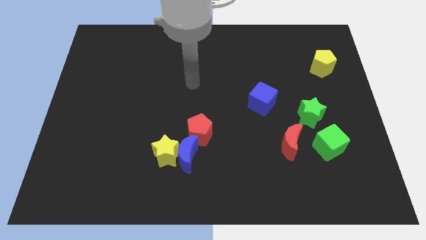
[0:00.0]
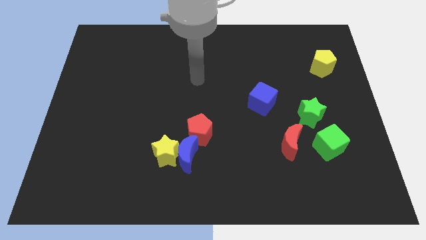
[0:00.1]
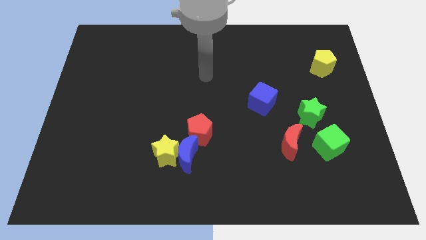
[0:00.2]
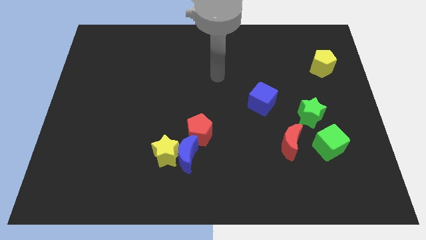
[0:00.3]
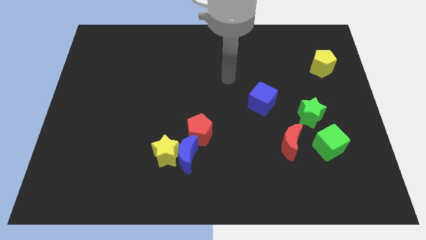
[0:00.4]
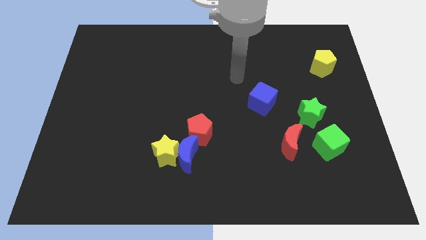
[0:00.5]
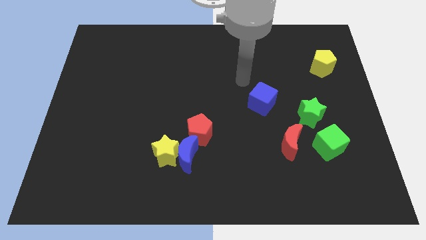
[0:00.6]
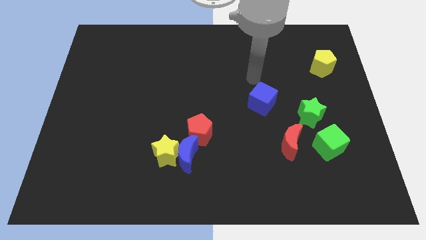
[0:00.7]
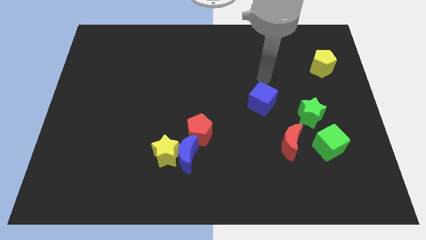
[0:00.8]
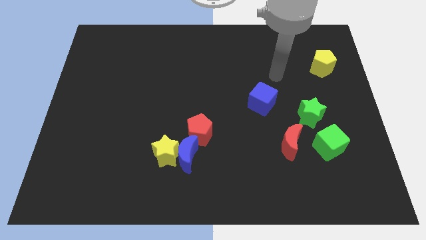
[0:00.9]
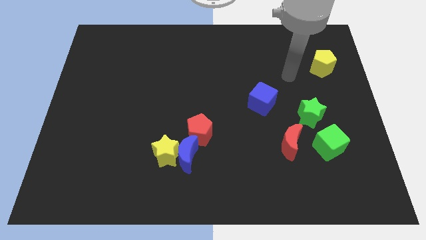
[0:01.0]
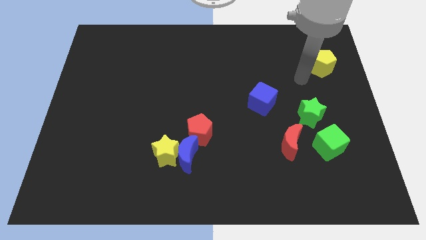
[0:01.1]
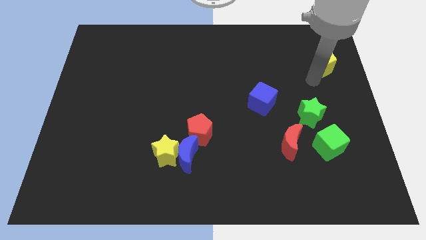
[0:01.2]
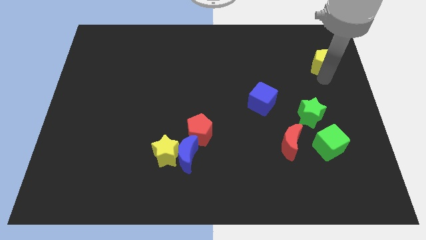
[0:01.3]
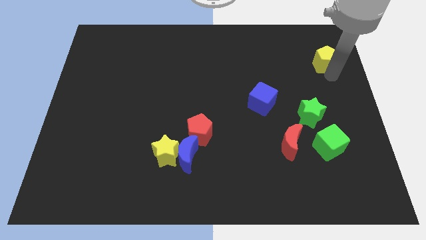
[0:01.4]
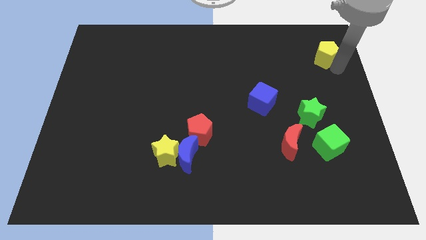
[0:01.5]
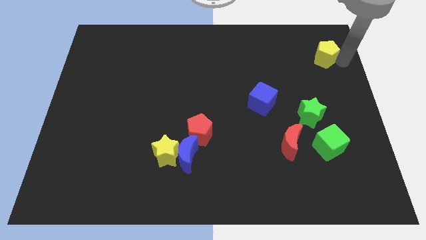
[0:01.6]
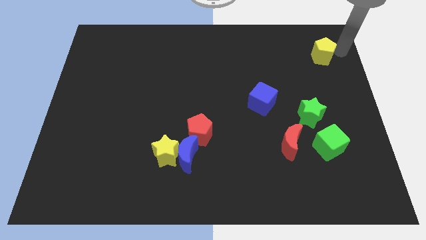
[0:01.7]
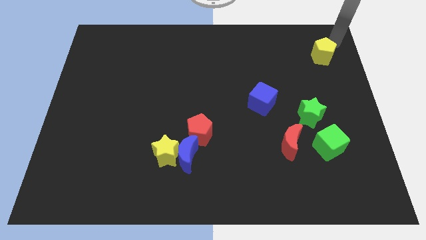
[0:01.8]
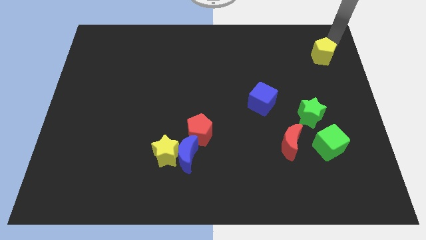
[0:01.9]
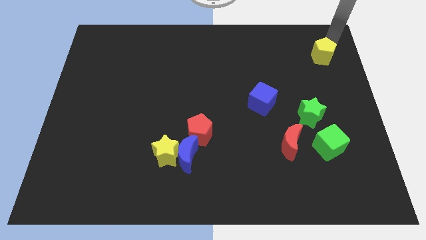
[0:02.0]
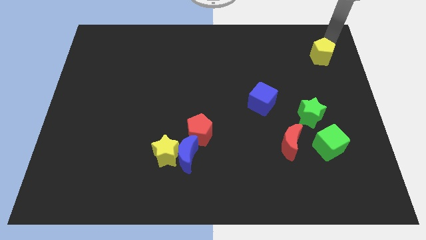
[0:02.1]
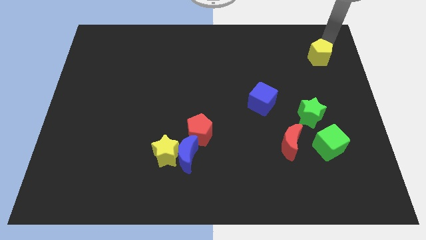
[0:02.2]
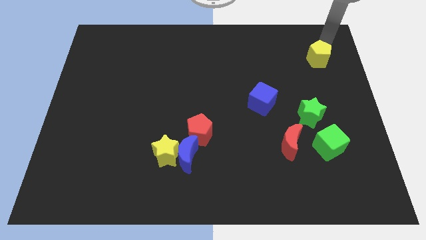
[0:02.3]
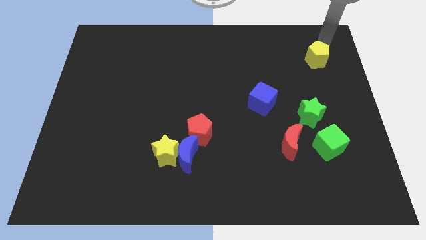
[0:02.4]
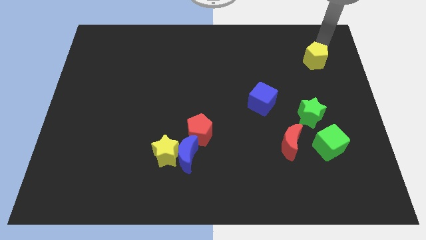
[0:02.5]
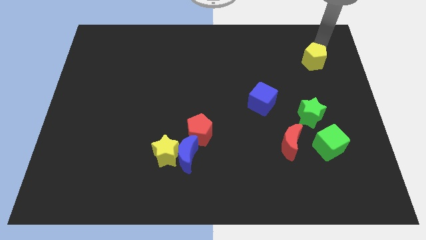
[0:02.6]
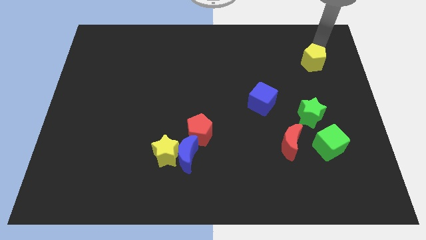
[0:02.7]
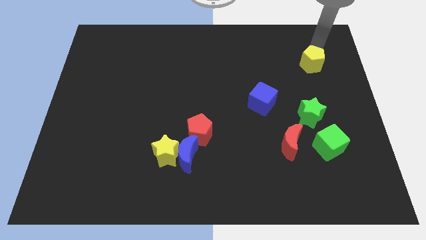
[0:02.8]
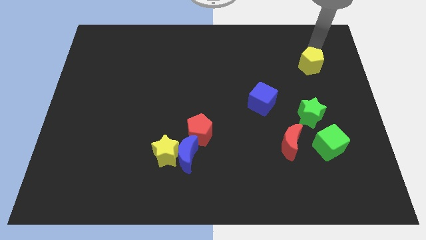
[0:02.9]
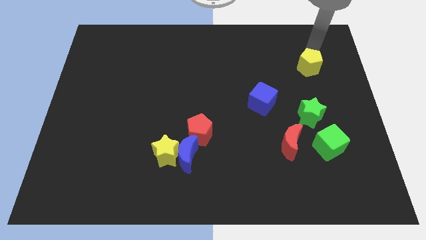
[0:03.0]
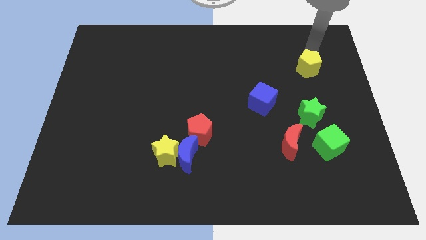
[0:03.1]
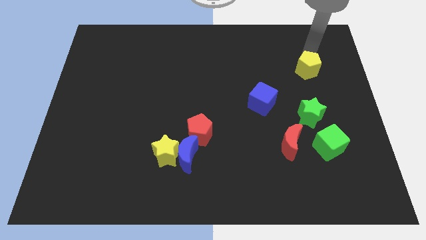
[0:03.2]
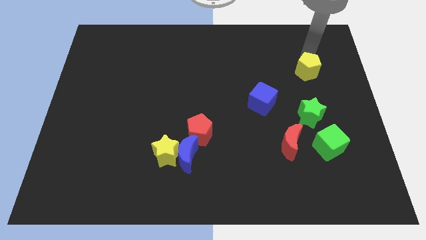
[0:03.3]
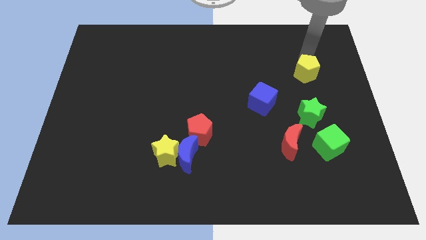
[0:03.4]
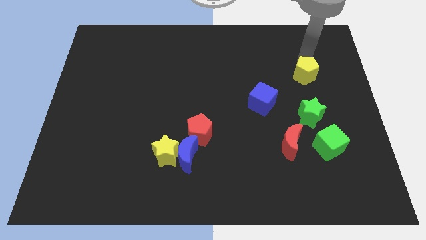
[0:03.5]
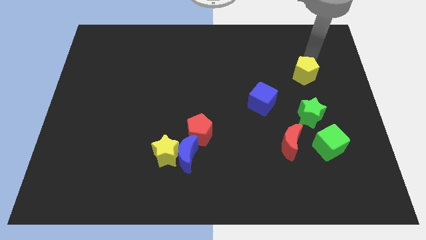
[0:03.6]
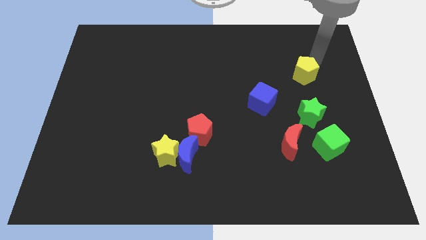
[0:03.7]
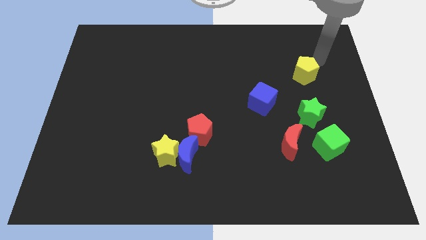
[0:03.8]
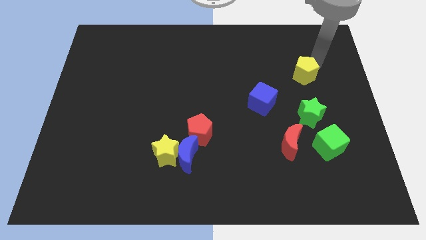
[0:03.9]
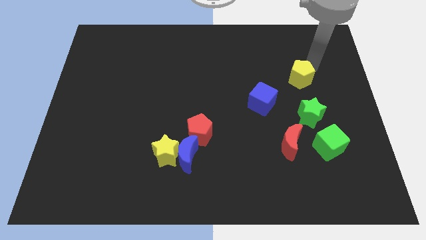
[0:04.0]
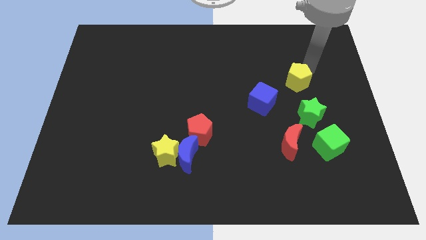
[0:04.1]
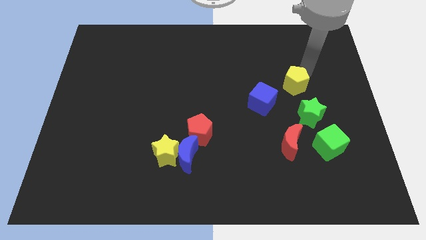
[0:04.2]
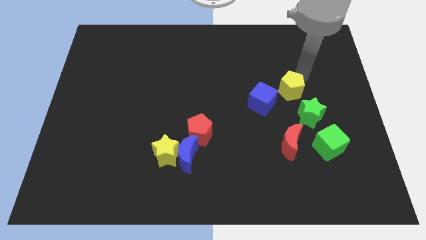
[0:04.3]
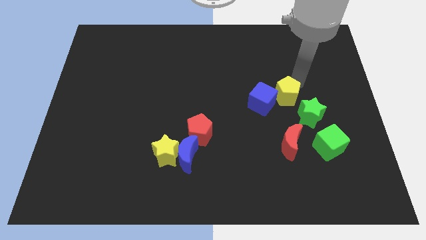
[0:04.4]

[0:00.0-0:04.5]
put the yellow pentagon towards the blue cube

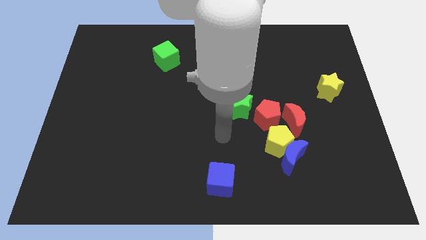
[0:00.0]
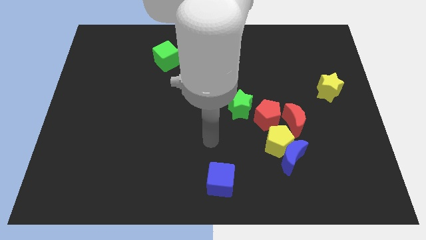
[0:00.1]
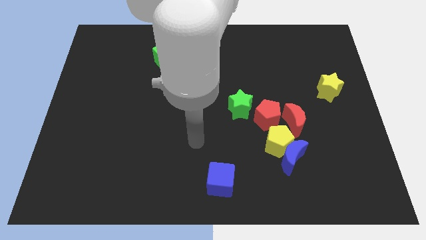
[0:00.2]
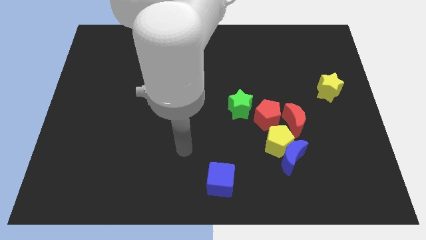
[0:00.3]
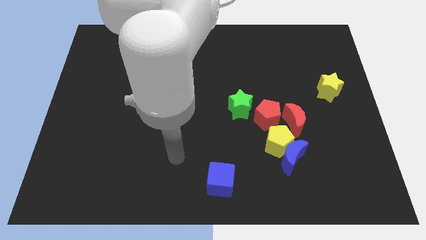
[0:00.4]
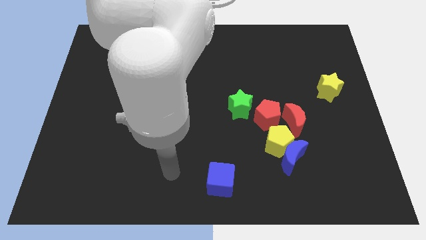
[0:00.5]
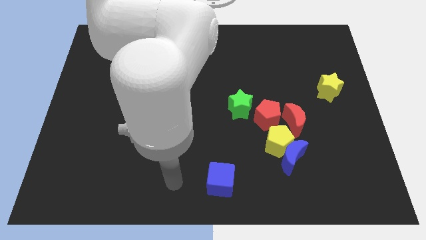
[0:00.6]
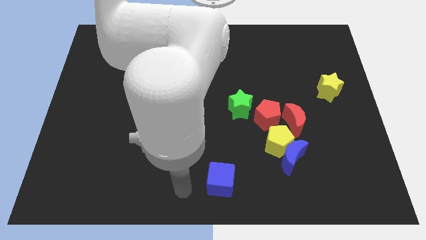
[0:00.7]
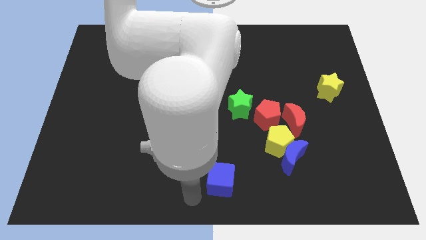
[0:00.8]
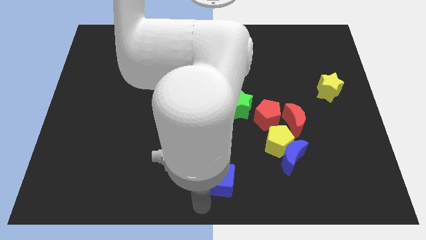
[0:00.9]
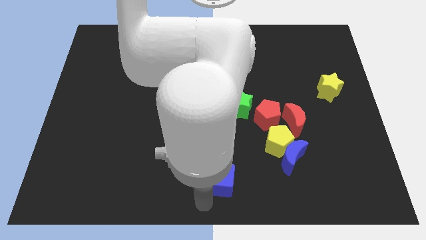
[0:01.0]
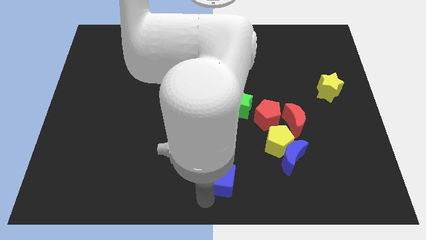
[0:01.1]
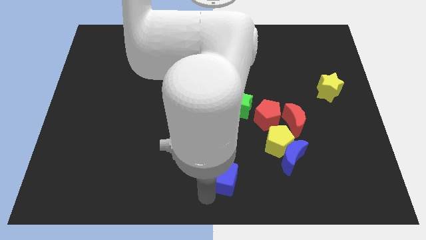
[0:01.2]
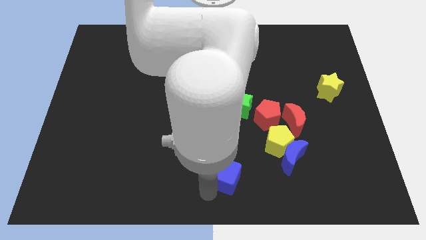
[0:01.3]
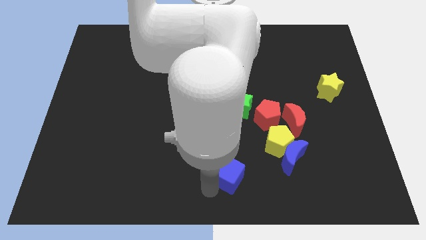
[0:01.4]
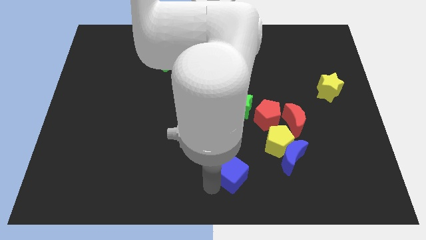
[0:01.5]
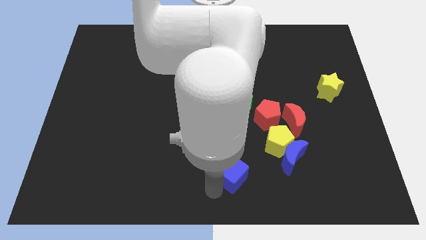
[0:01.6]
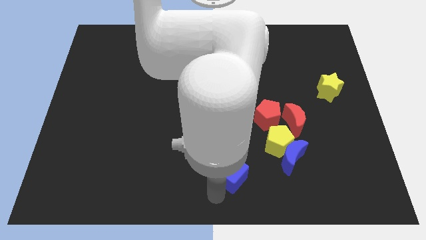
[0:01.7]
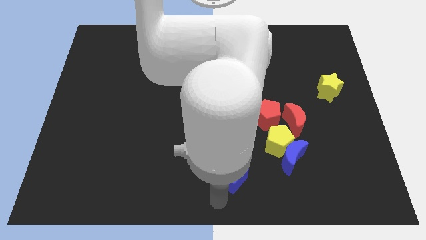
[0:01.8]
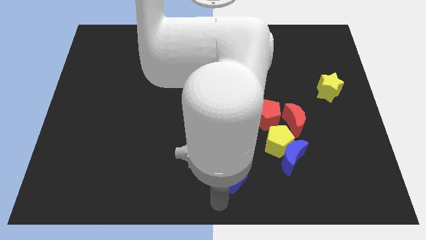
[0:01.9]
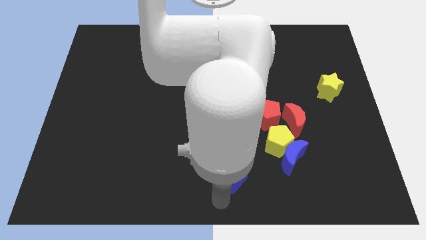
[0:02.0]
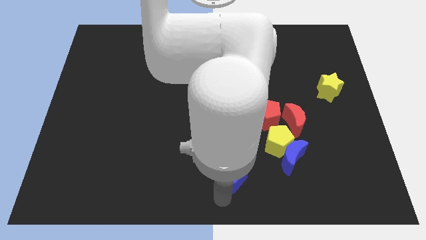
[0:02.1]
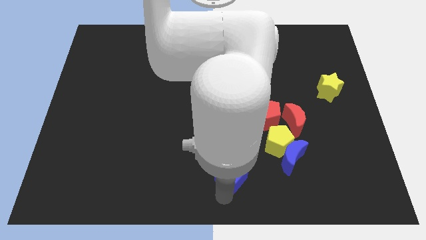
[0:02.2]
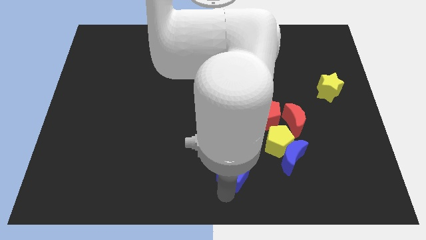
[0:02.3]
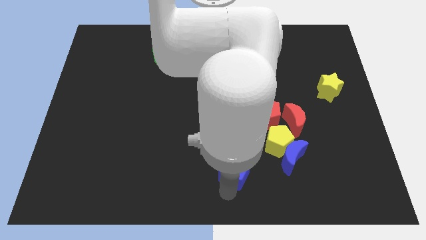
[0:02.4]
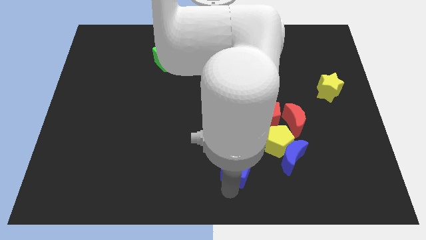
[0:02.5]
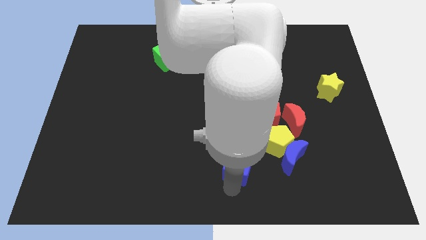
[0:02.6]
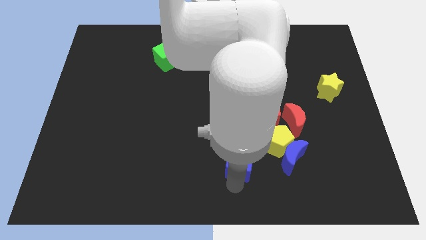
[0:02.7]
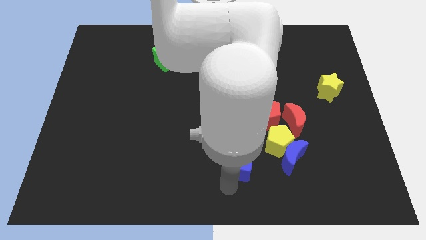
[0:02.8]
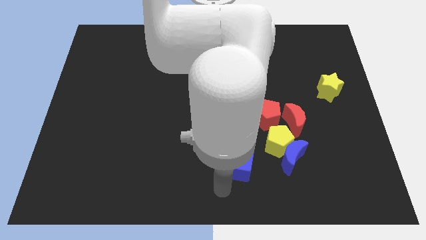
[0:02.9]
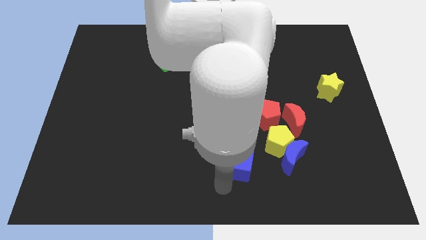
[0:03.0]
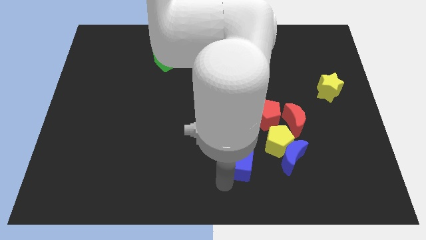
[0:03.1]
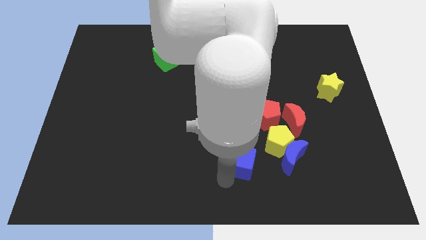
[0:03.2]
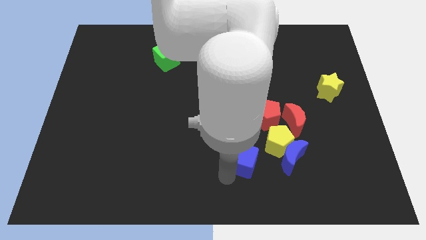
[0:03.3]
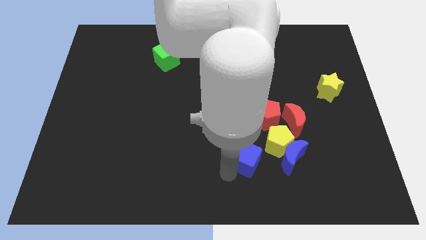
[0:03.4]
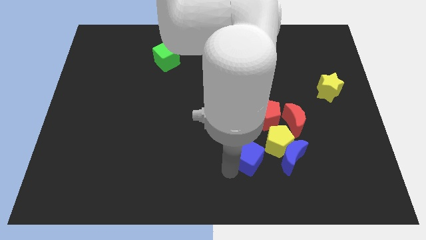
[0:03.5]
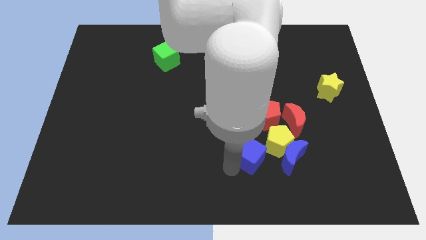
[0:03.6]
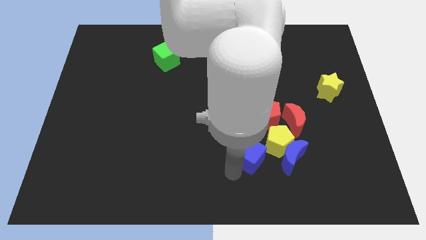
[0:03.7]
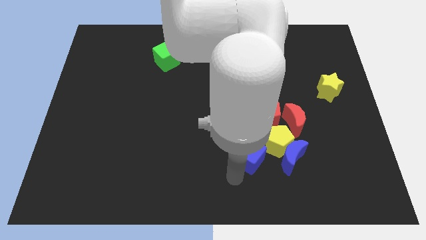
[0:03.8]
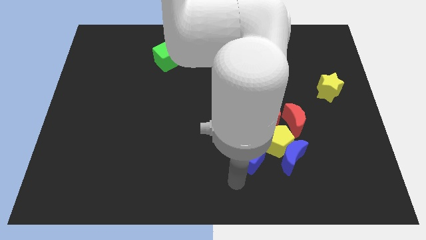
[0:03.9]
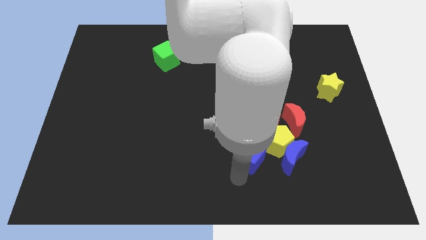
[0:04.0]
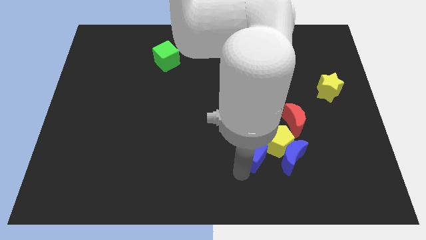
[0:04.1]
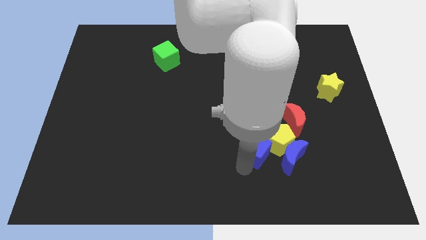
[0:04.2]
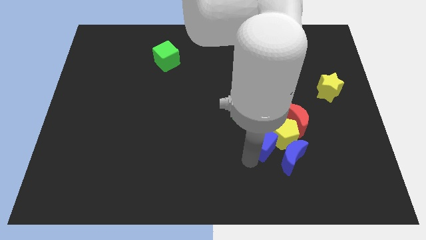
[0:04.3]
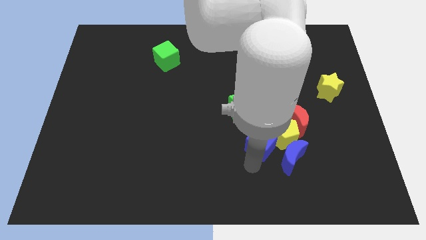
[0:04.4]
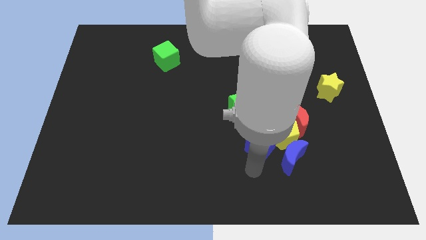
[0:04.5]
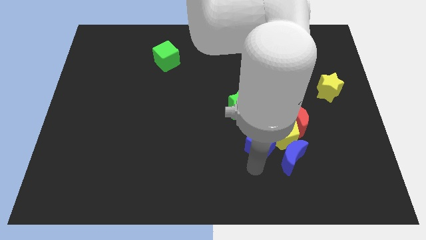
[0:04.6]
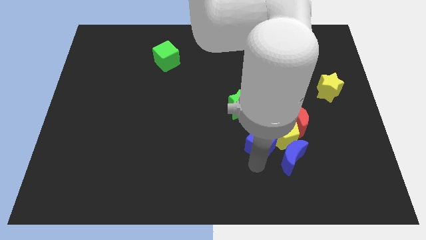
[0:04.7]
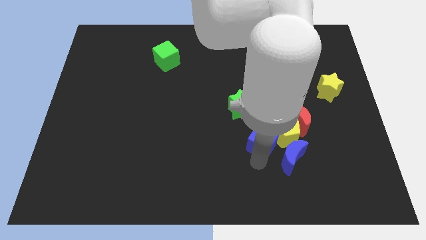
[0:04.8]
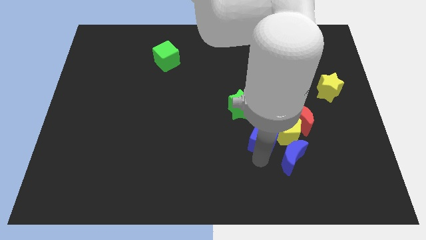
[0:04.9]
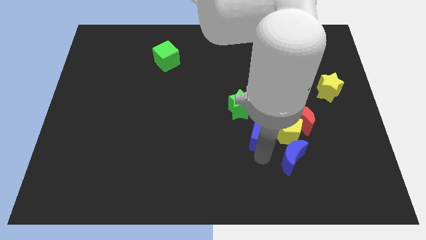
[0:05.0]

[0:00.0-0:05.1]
move the blue cube next to the red pentagon
